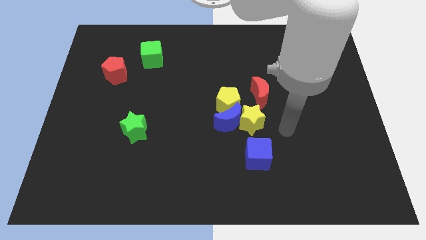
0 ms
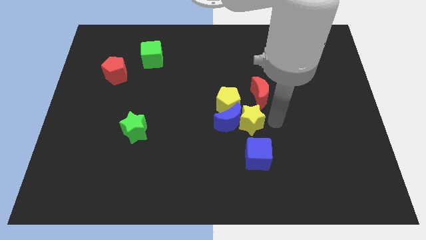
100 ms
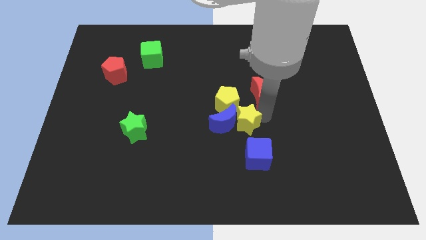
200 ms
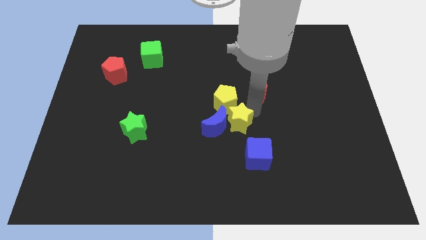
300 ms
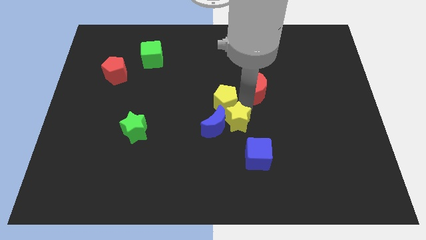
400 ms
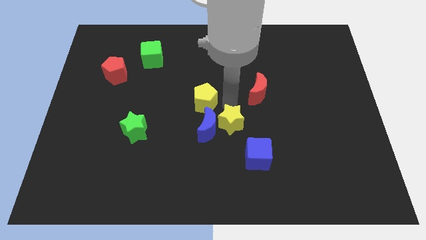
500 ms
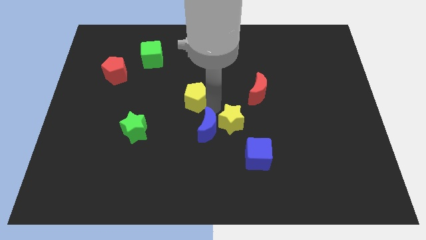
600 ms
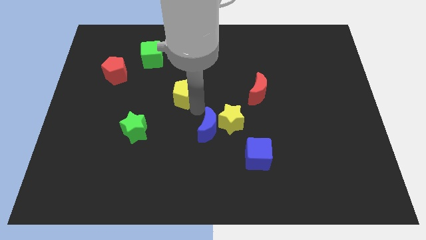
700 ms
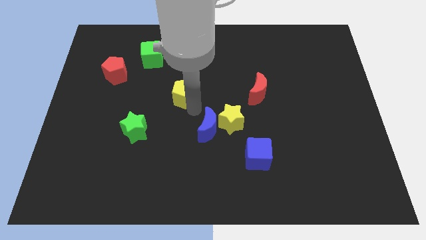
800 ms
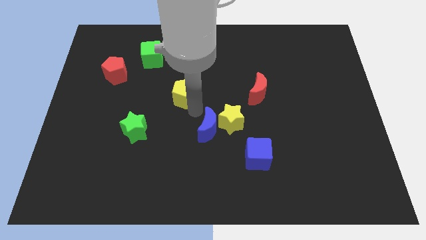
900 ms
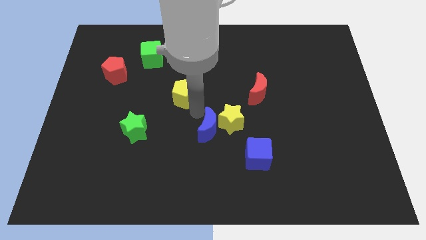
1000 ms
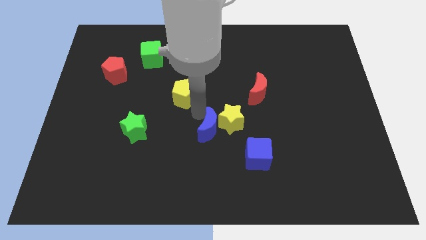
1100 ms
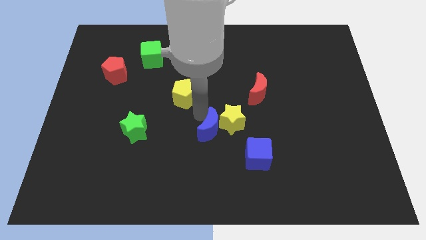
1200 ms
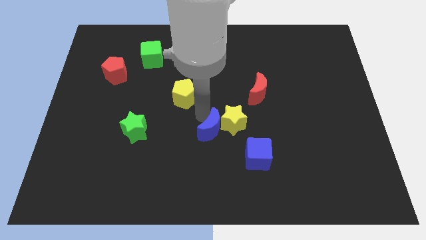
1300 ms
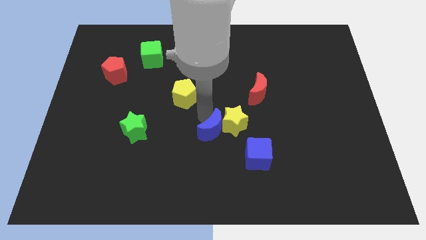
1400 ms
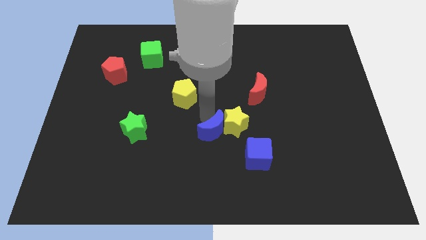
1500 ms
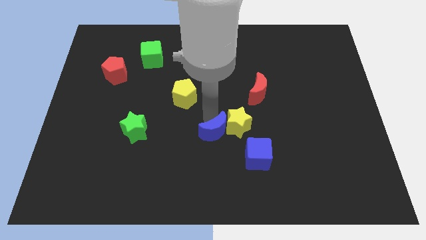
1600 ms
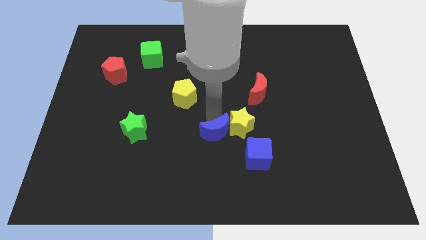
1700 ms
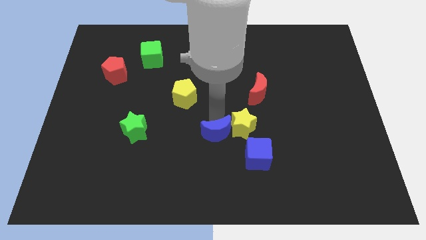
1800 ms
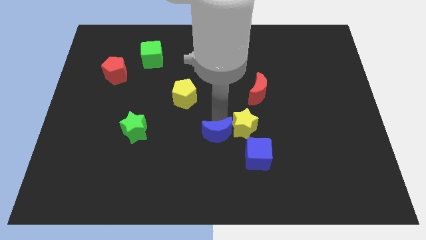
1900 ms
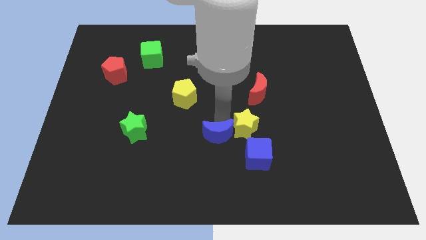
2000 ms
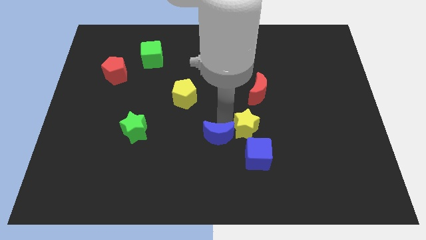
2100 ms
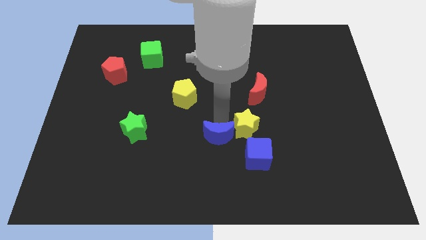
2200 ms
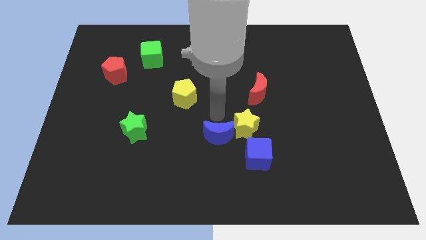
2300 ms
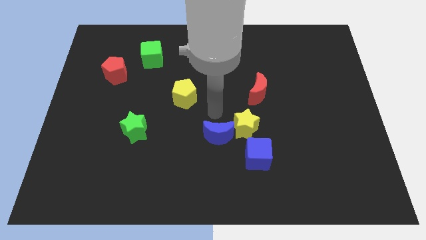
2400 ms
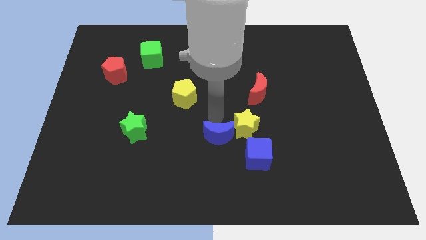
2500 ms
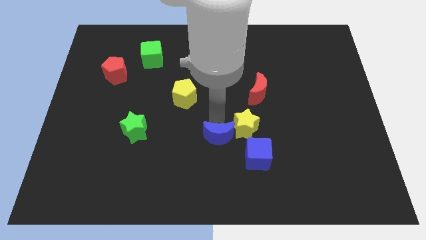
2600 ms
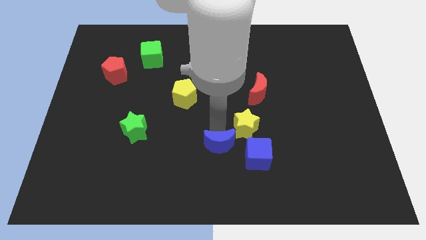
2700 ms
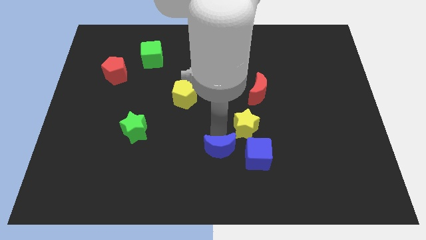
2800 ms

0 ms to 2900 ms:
move the blue moon away from the yellow star and yellow pentagon

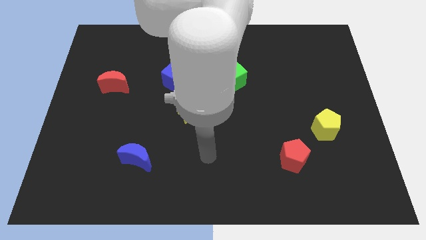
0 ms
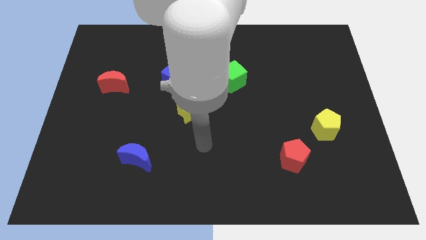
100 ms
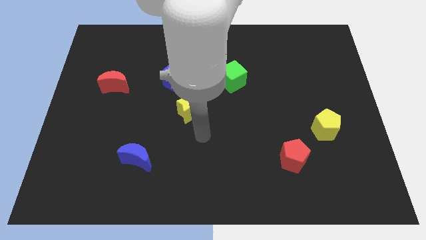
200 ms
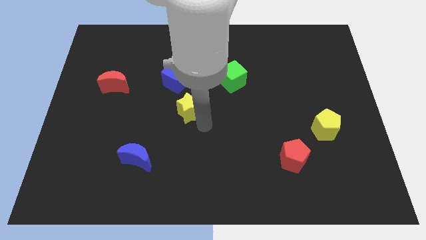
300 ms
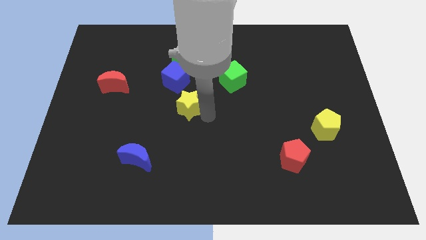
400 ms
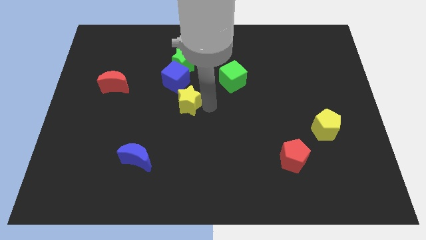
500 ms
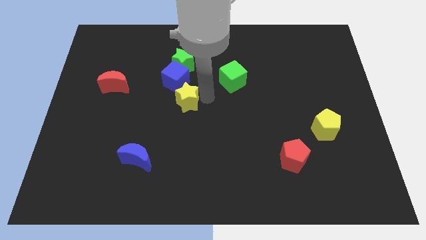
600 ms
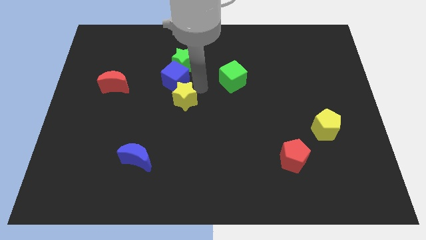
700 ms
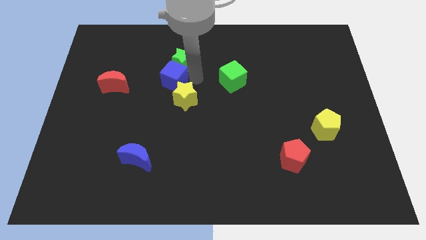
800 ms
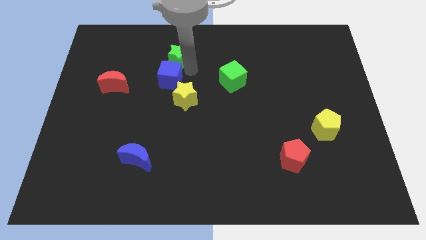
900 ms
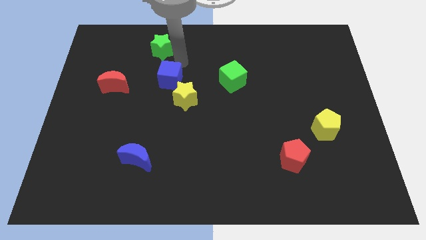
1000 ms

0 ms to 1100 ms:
separate the blue cube from the green star

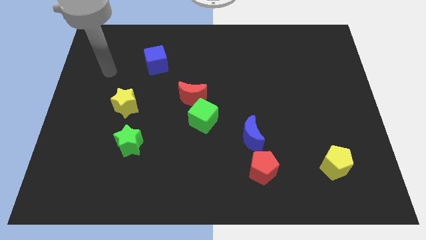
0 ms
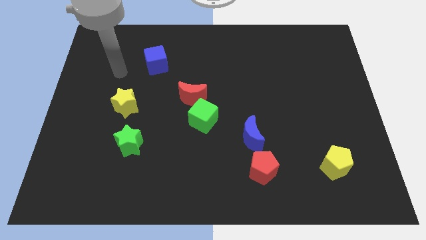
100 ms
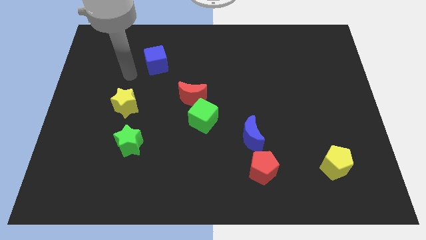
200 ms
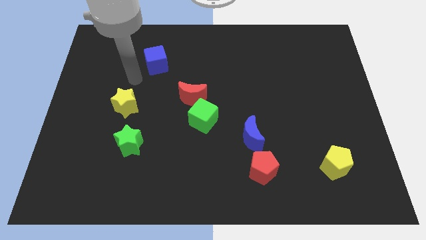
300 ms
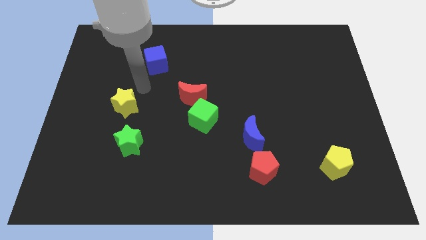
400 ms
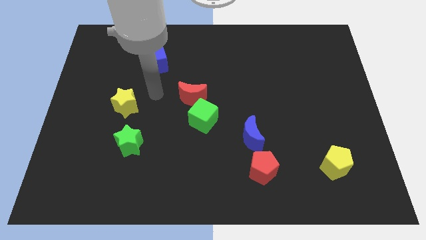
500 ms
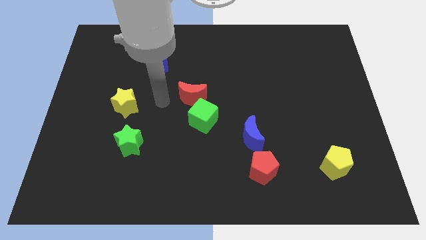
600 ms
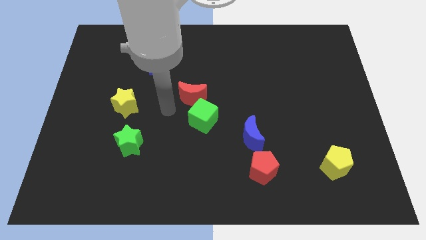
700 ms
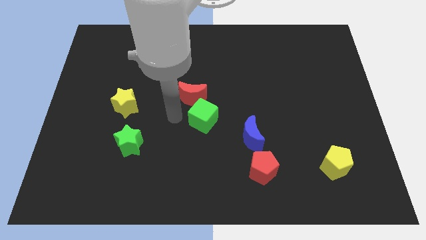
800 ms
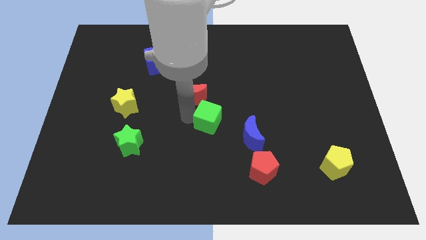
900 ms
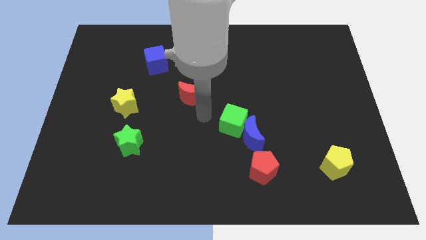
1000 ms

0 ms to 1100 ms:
separate the red moon from the green cube

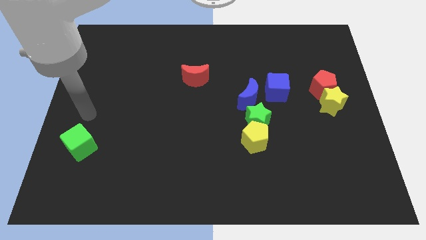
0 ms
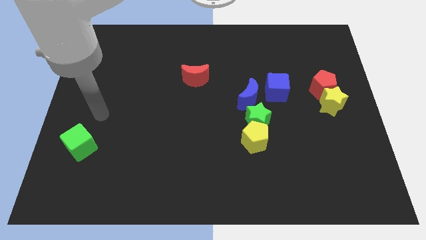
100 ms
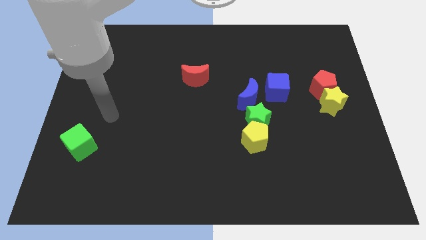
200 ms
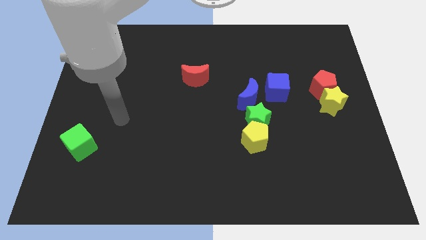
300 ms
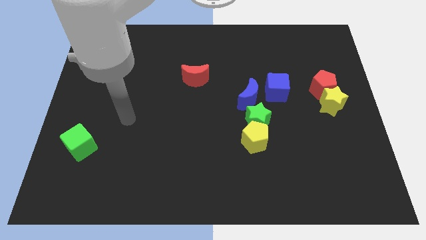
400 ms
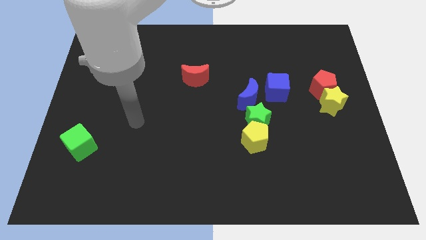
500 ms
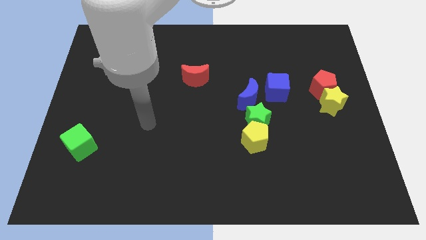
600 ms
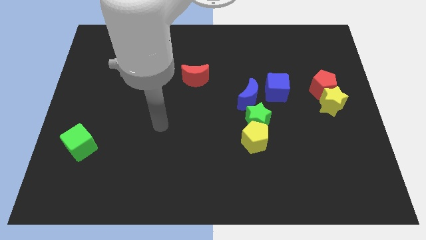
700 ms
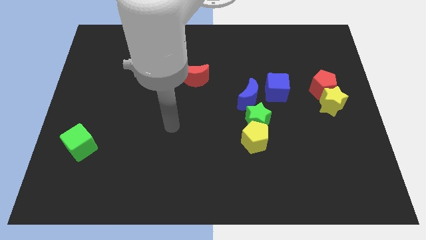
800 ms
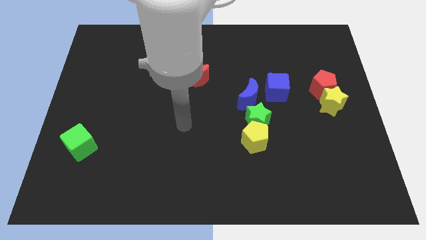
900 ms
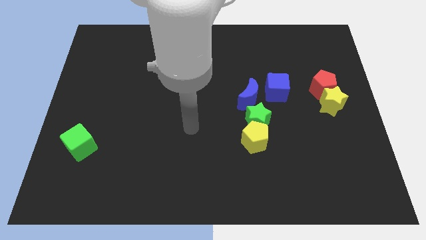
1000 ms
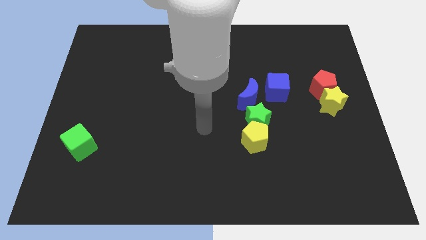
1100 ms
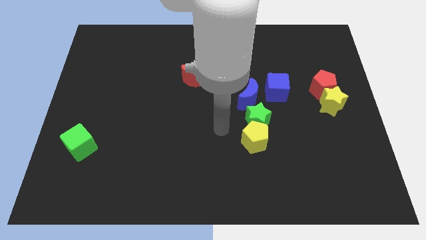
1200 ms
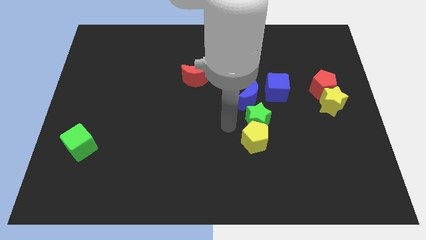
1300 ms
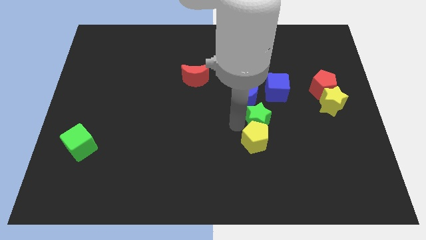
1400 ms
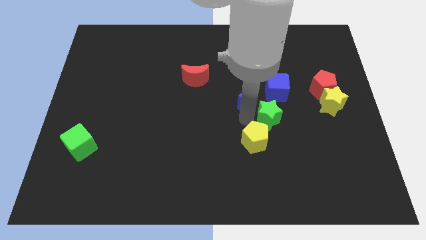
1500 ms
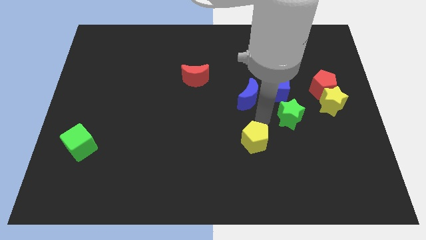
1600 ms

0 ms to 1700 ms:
move the yellow pentagon away from the green star

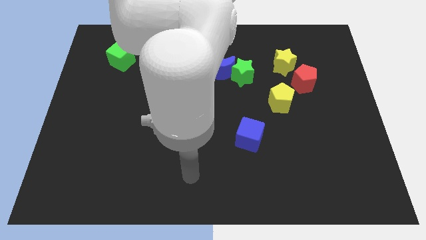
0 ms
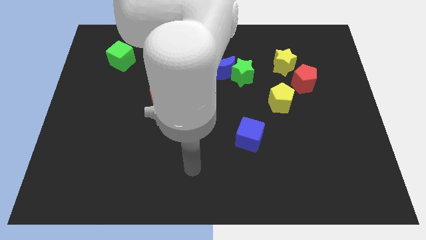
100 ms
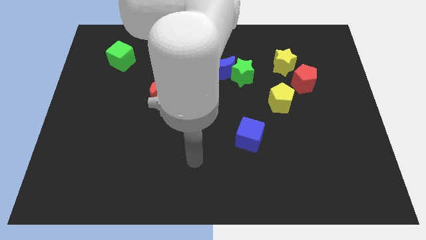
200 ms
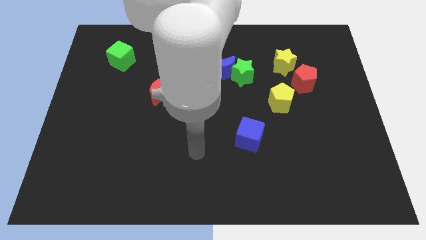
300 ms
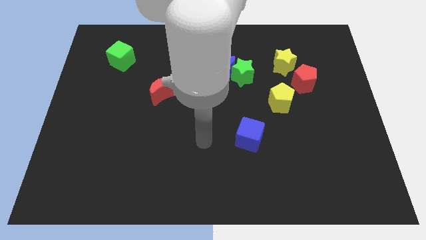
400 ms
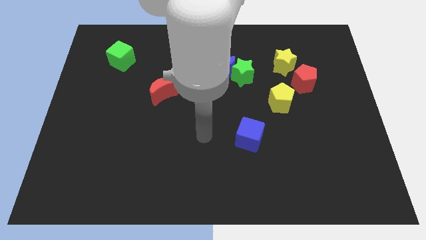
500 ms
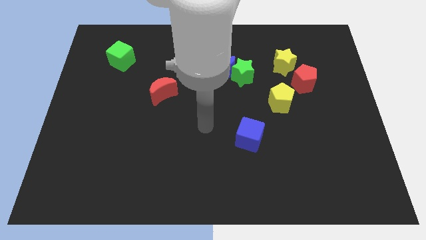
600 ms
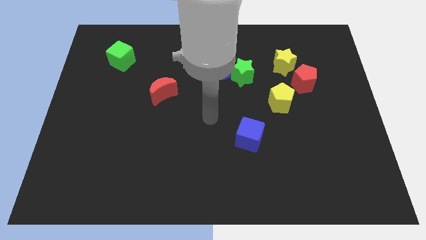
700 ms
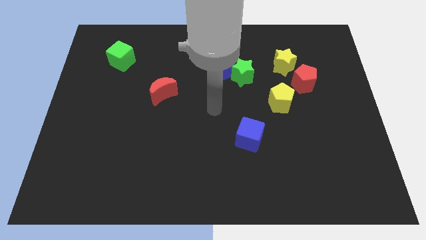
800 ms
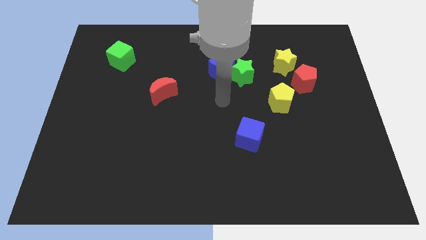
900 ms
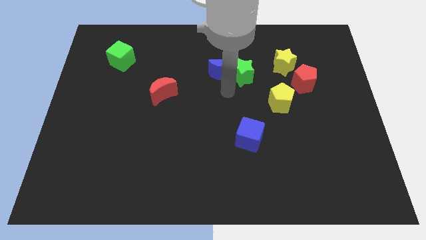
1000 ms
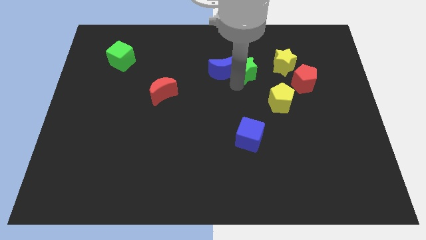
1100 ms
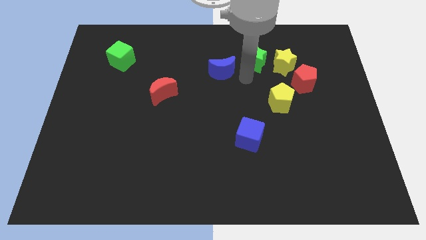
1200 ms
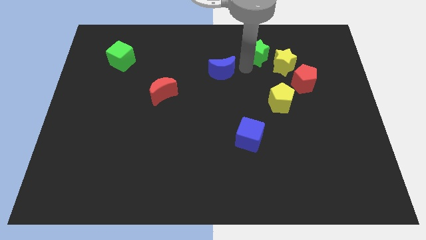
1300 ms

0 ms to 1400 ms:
pull the blue moon apart from the green star

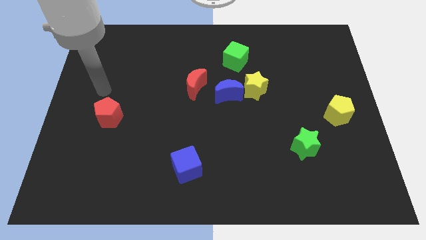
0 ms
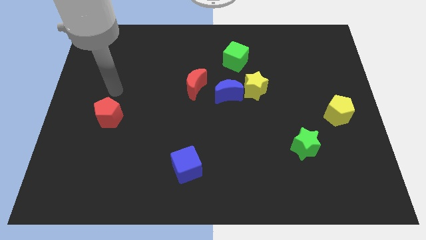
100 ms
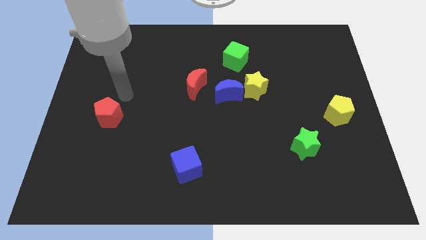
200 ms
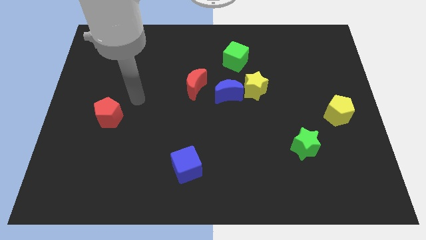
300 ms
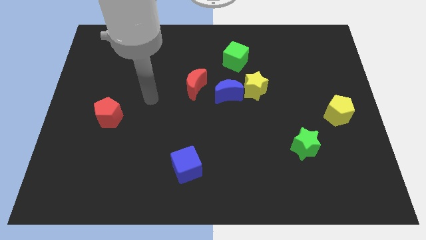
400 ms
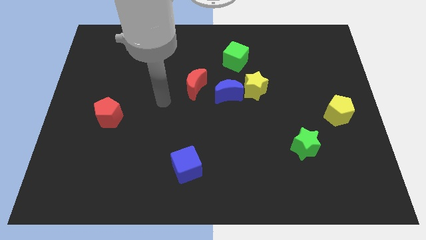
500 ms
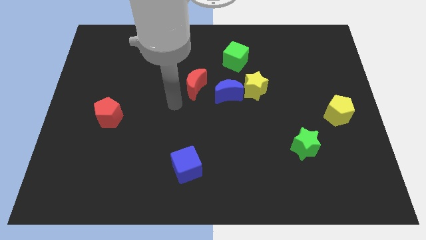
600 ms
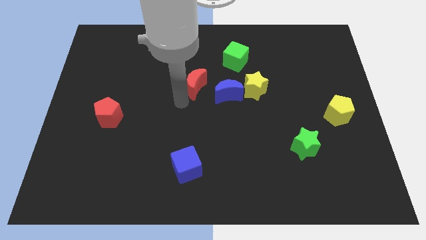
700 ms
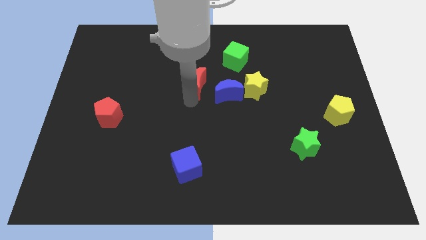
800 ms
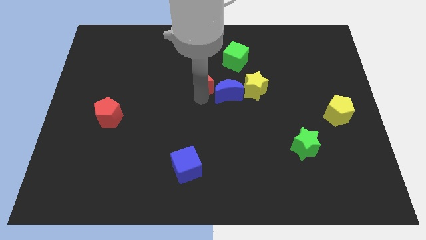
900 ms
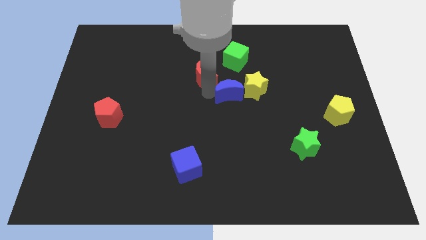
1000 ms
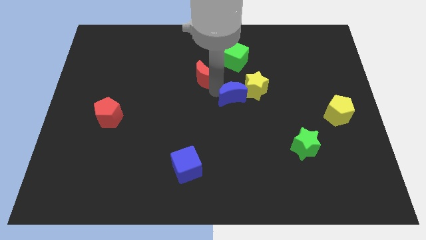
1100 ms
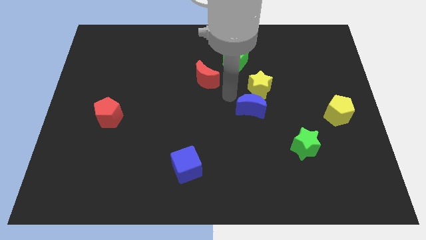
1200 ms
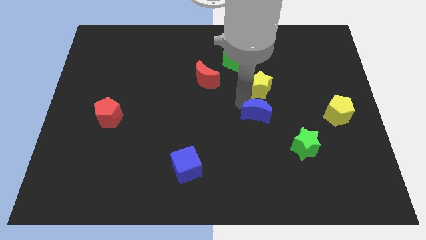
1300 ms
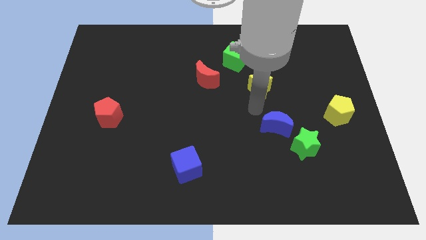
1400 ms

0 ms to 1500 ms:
separate the yellow star from the blue moon
